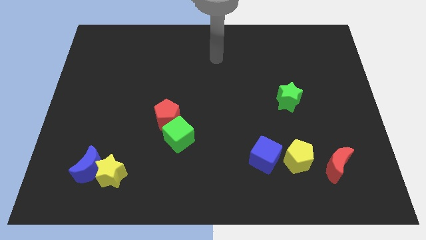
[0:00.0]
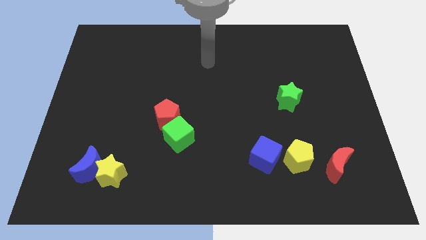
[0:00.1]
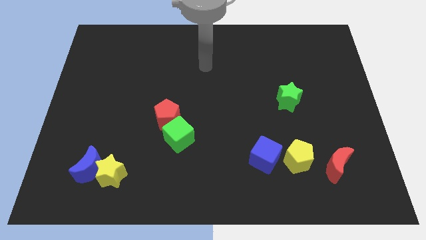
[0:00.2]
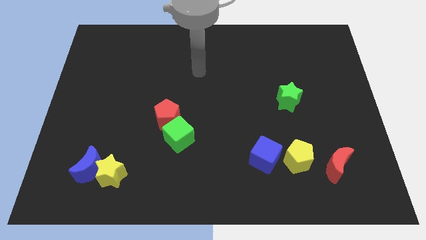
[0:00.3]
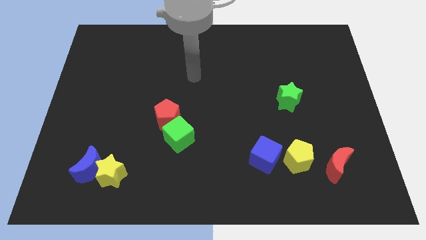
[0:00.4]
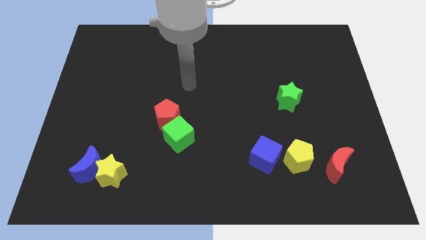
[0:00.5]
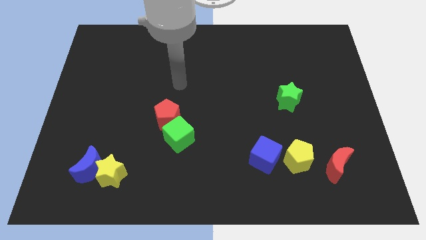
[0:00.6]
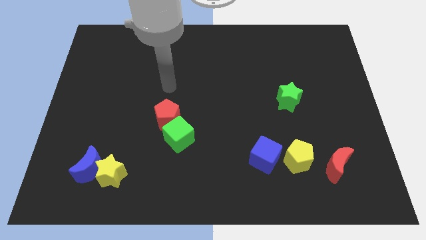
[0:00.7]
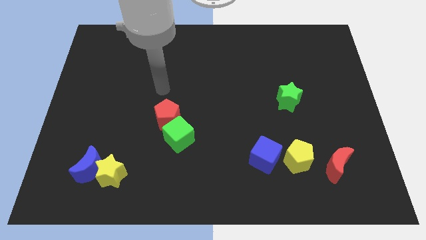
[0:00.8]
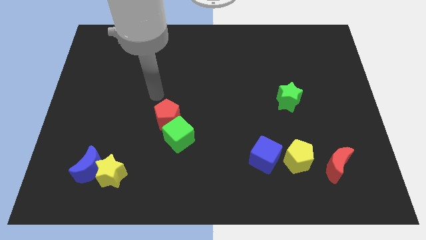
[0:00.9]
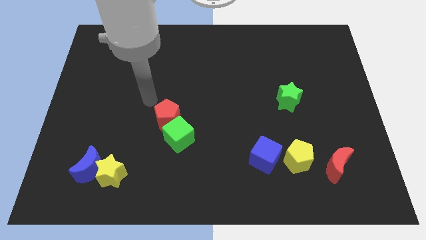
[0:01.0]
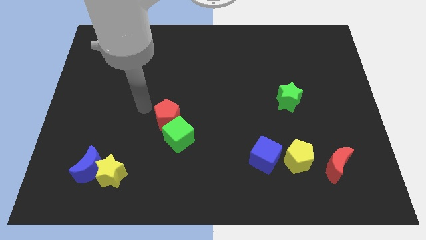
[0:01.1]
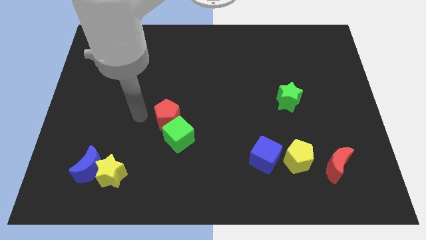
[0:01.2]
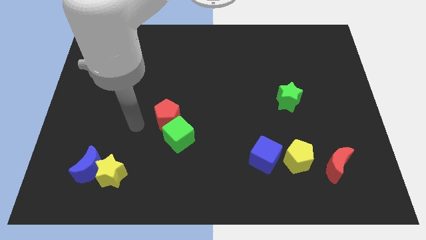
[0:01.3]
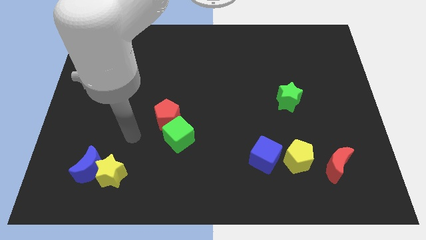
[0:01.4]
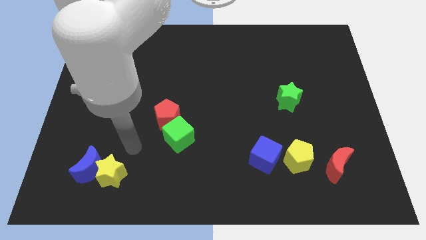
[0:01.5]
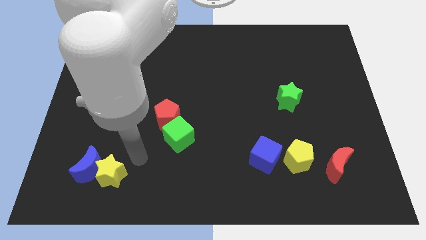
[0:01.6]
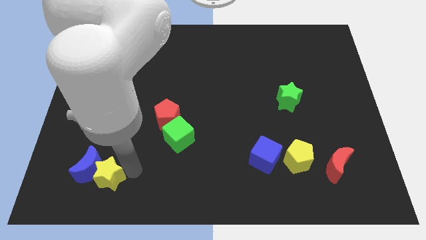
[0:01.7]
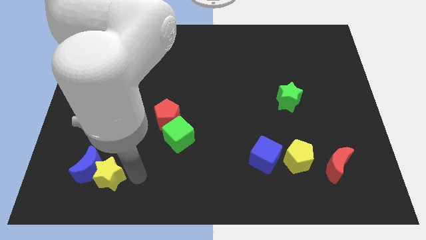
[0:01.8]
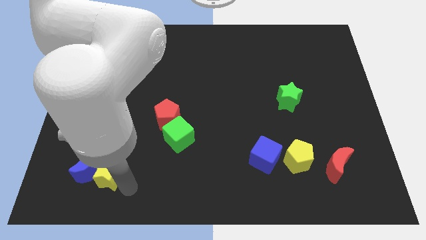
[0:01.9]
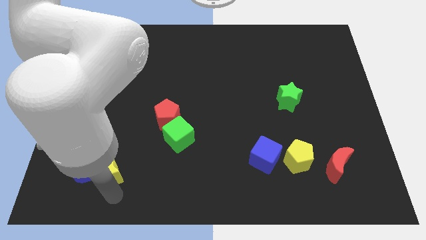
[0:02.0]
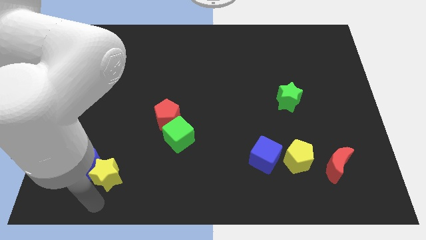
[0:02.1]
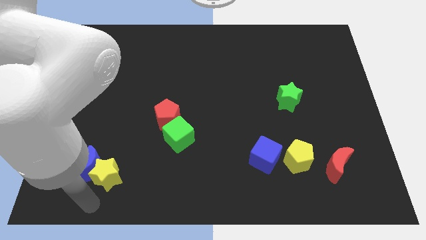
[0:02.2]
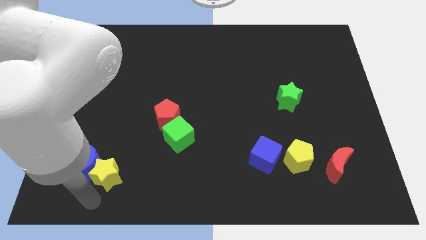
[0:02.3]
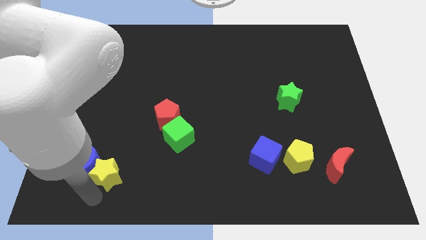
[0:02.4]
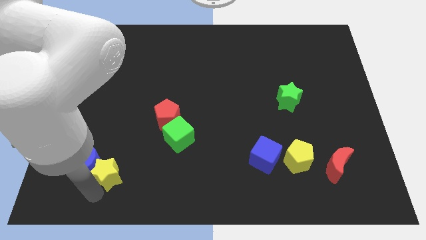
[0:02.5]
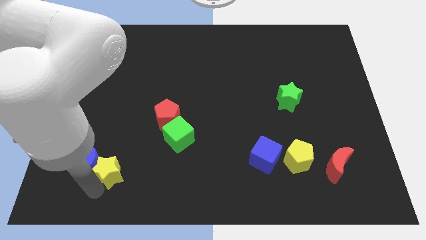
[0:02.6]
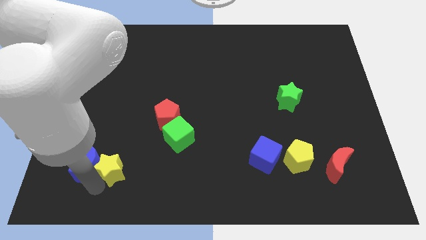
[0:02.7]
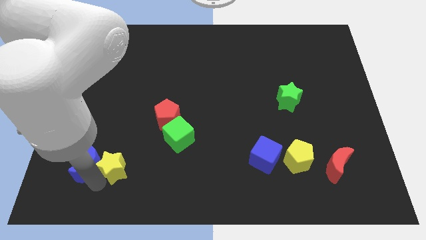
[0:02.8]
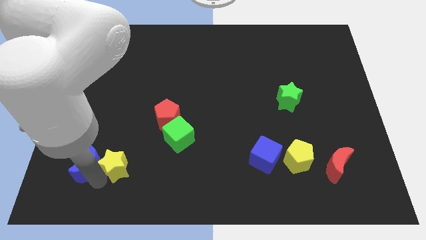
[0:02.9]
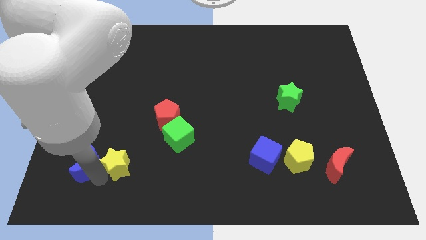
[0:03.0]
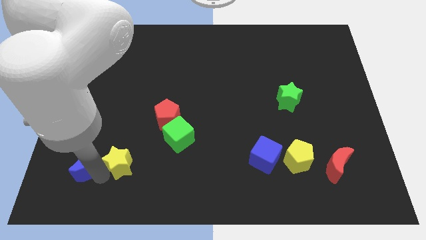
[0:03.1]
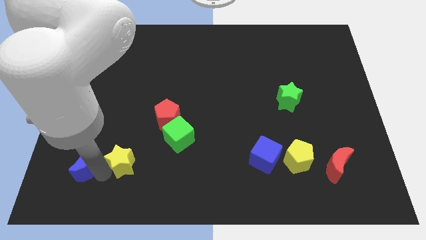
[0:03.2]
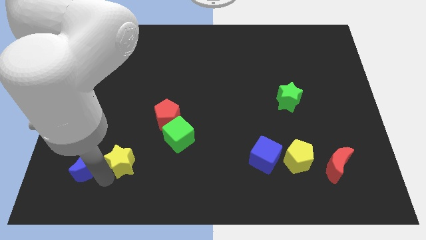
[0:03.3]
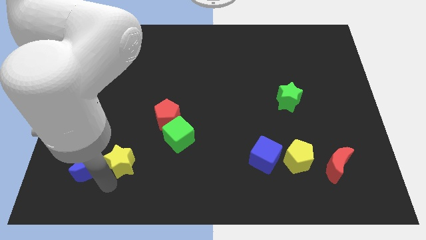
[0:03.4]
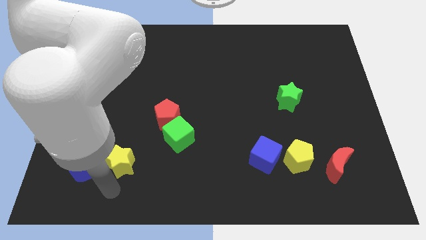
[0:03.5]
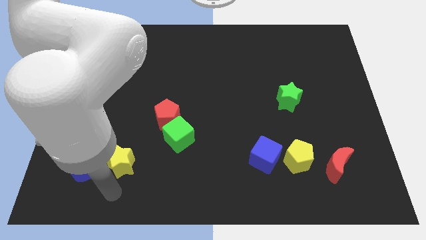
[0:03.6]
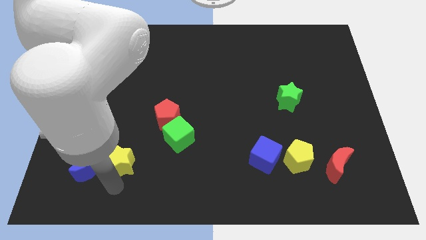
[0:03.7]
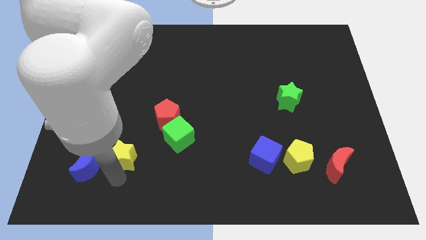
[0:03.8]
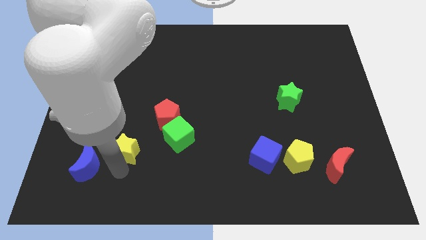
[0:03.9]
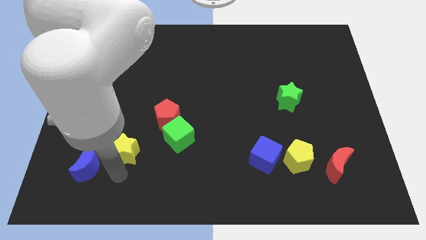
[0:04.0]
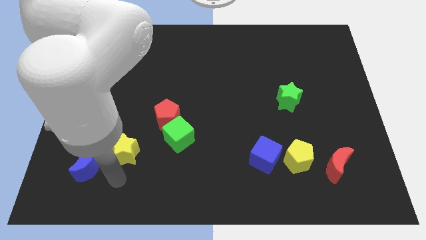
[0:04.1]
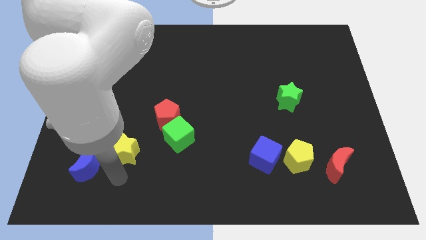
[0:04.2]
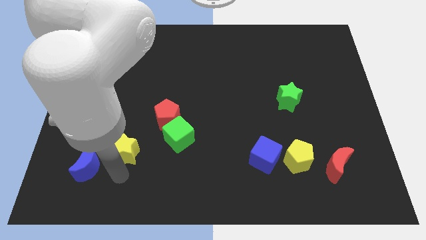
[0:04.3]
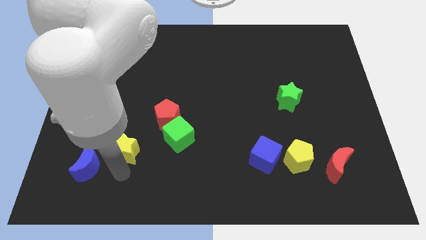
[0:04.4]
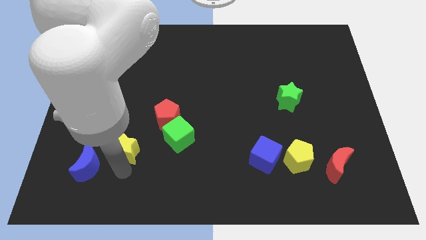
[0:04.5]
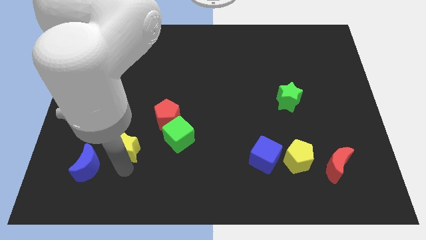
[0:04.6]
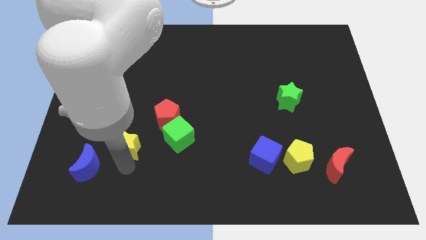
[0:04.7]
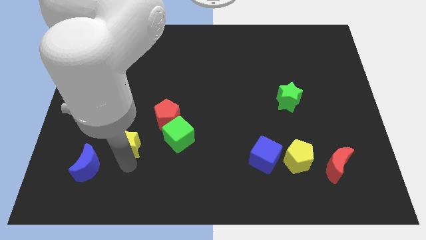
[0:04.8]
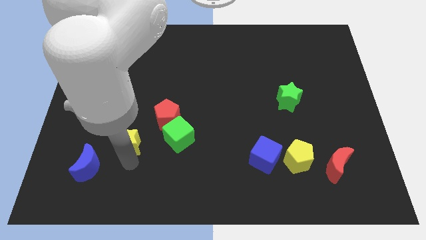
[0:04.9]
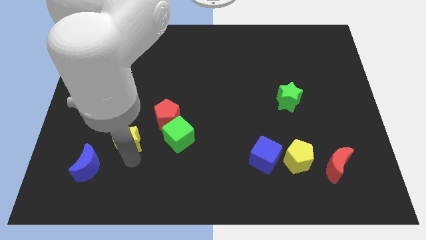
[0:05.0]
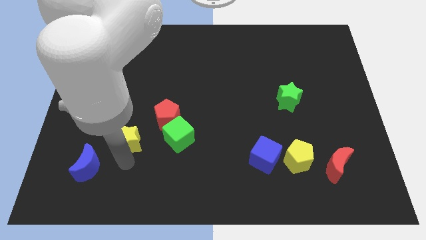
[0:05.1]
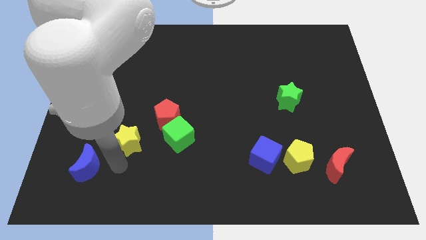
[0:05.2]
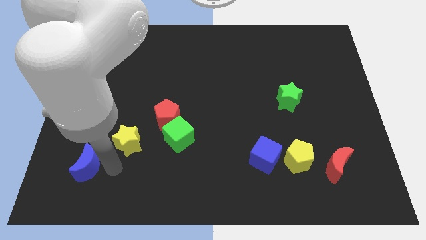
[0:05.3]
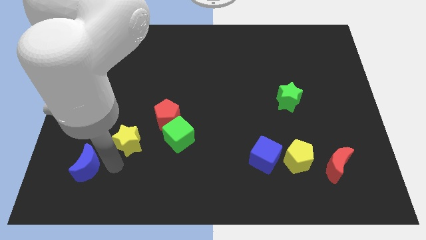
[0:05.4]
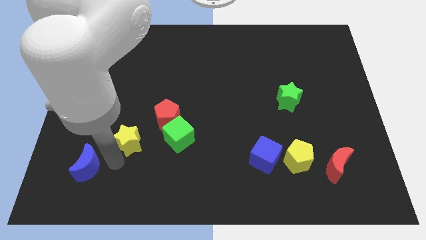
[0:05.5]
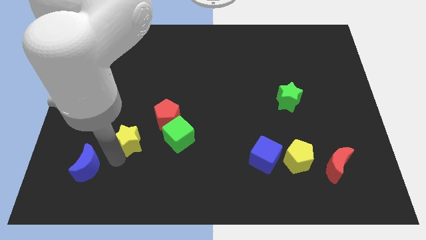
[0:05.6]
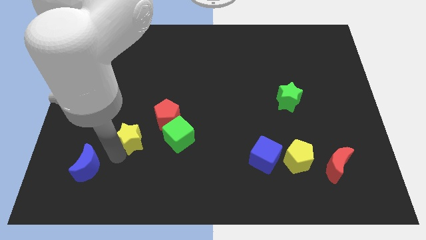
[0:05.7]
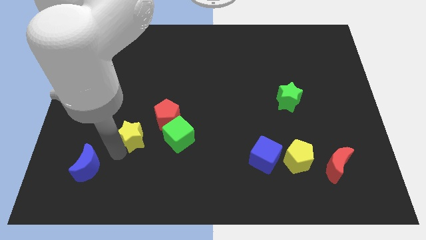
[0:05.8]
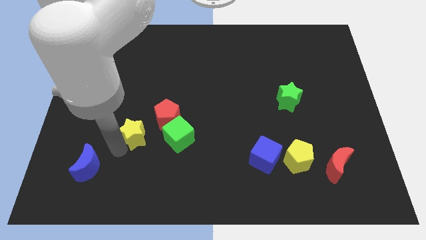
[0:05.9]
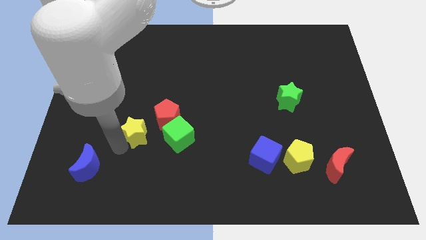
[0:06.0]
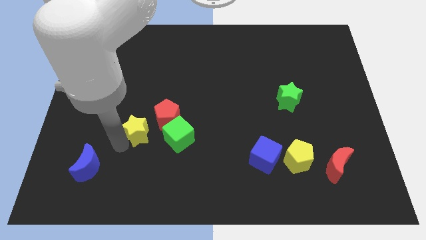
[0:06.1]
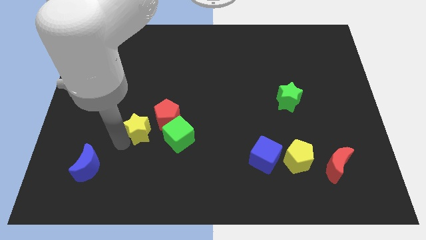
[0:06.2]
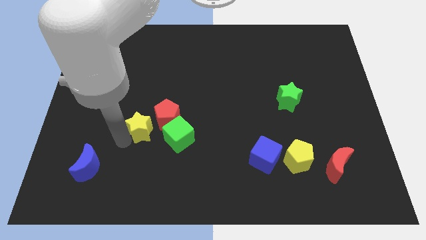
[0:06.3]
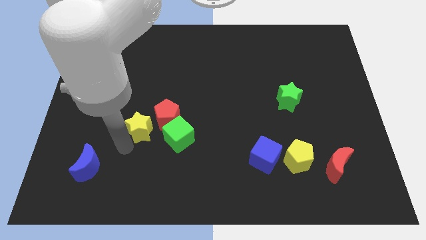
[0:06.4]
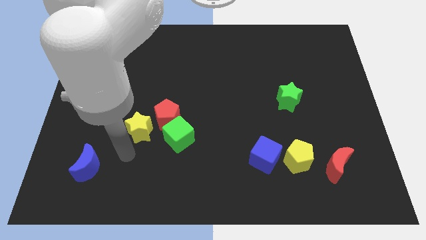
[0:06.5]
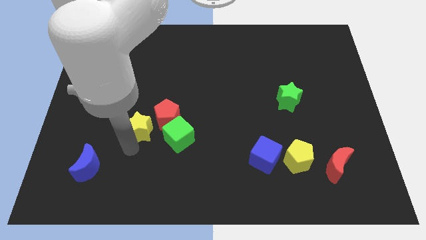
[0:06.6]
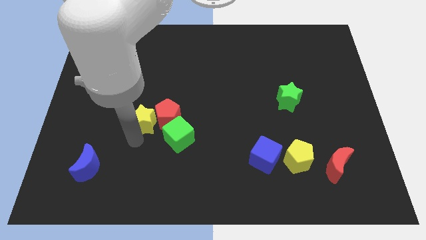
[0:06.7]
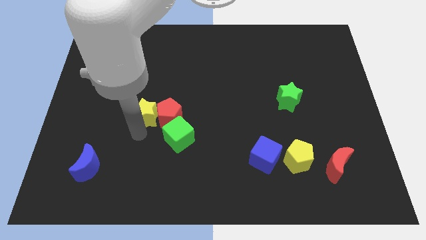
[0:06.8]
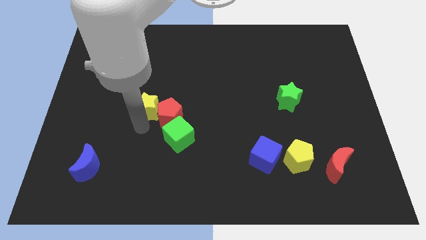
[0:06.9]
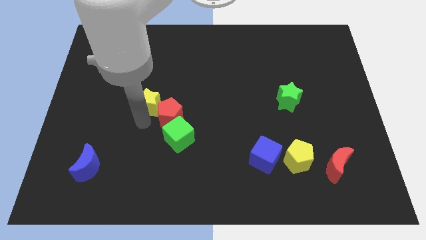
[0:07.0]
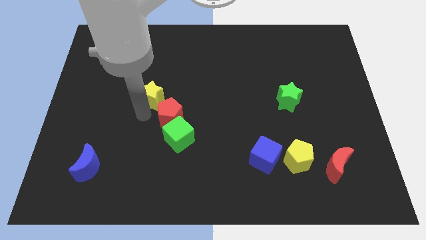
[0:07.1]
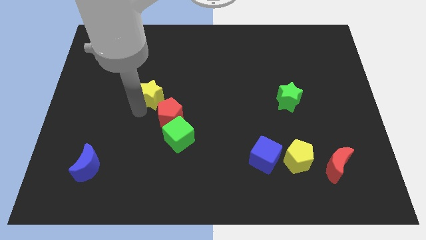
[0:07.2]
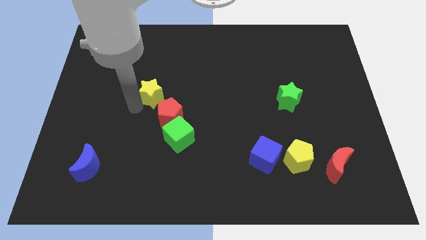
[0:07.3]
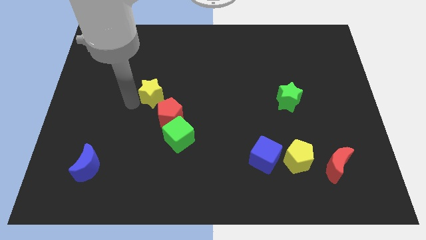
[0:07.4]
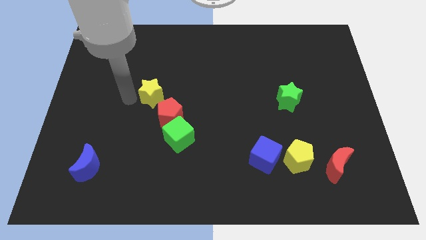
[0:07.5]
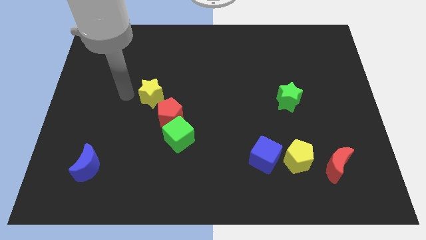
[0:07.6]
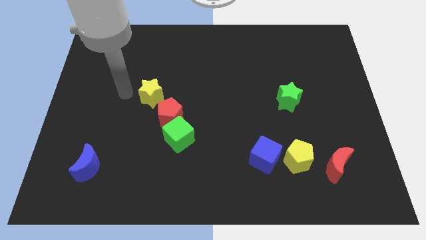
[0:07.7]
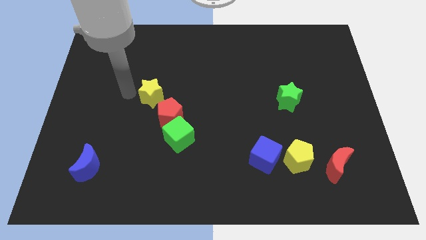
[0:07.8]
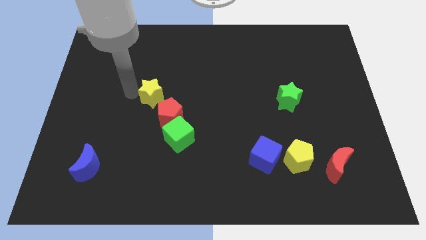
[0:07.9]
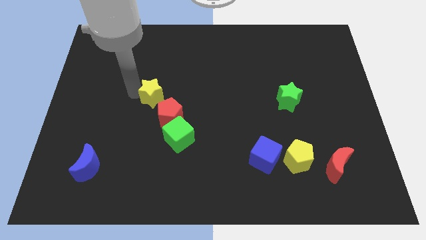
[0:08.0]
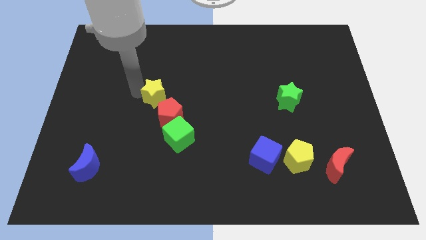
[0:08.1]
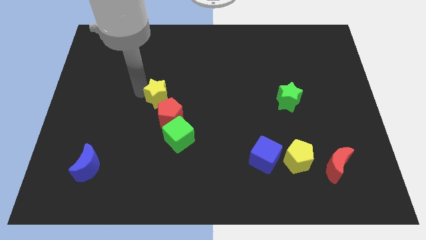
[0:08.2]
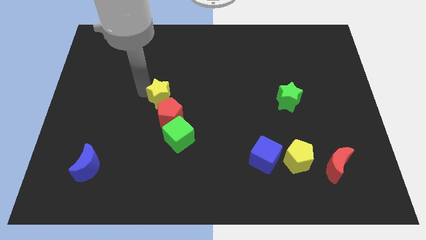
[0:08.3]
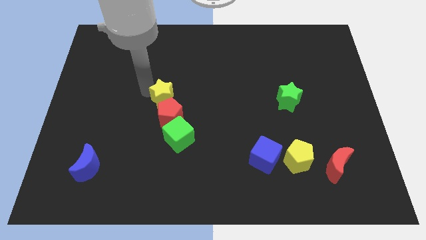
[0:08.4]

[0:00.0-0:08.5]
put the yellow star above the green cube
